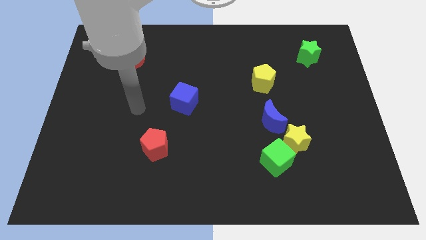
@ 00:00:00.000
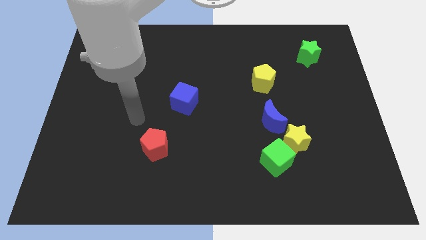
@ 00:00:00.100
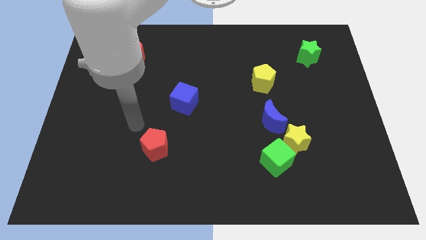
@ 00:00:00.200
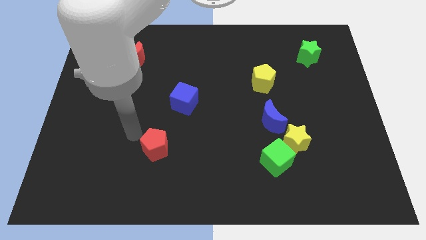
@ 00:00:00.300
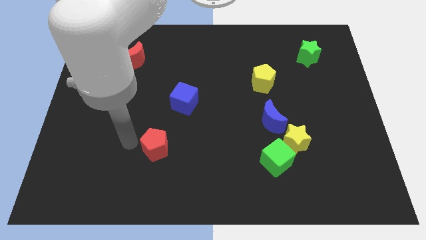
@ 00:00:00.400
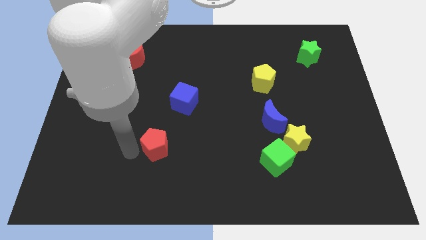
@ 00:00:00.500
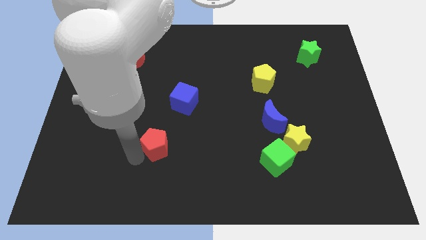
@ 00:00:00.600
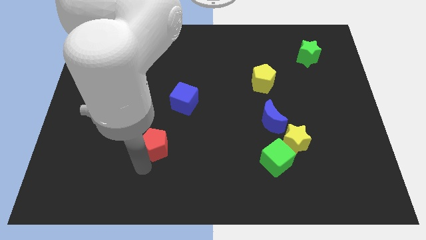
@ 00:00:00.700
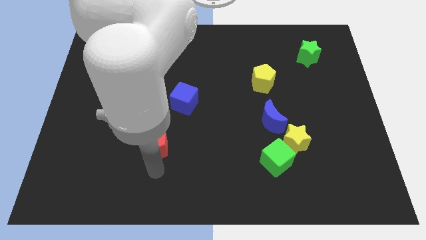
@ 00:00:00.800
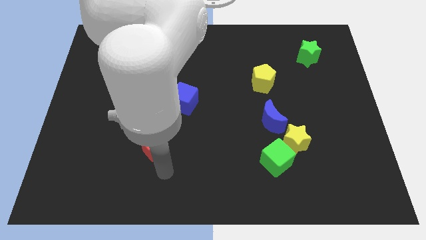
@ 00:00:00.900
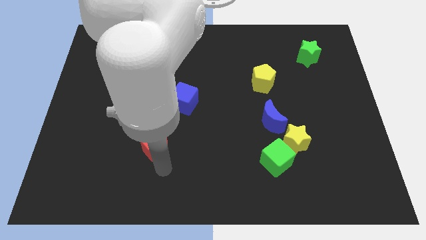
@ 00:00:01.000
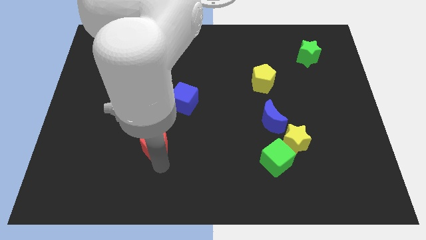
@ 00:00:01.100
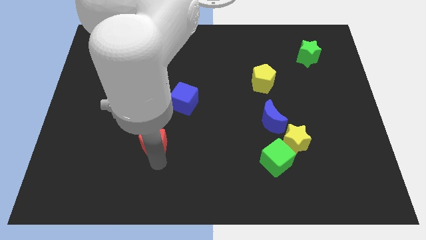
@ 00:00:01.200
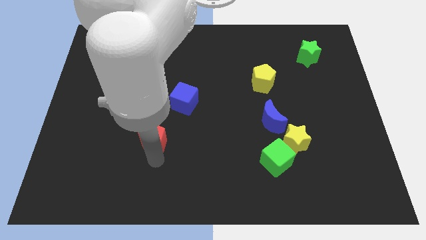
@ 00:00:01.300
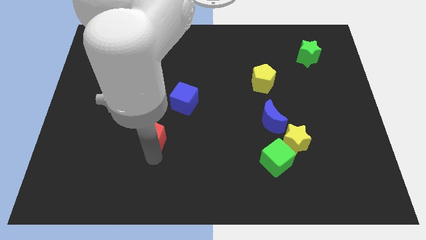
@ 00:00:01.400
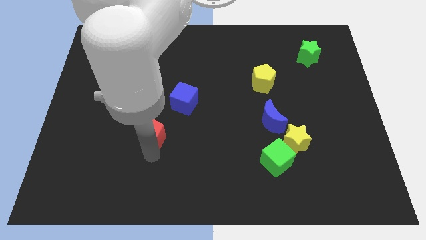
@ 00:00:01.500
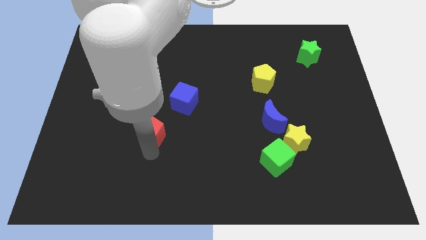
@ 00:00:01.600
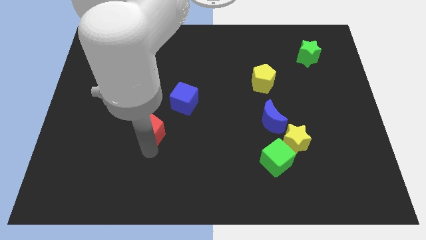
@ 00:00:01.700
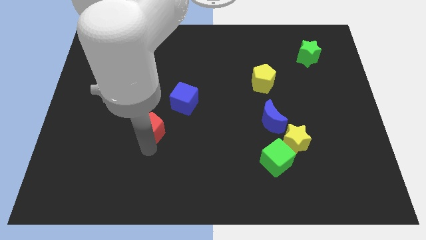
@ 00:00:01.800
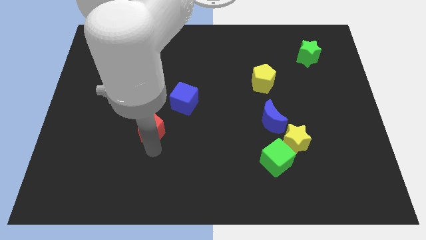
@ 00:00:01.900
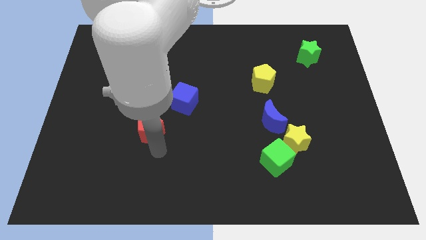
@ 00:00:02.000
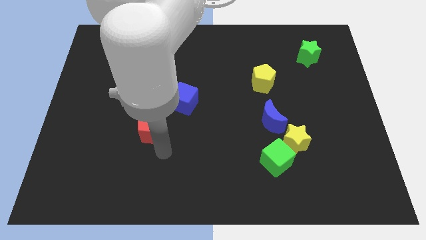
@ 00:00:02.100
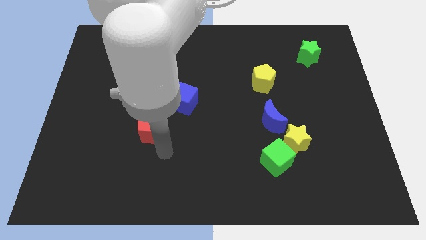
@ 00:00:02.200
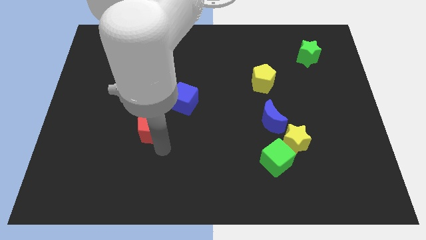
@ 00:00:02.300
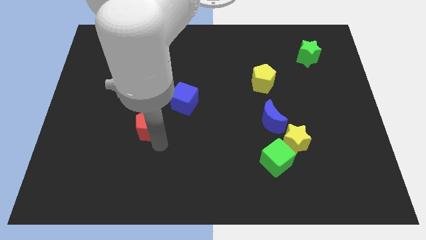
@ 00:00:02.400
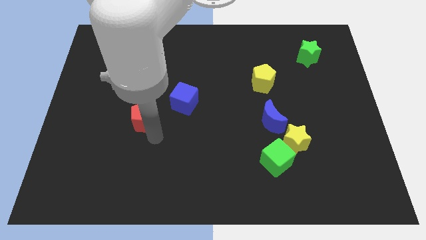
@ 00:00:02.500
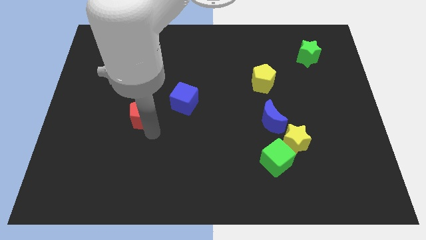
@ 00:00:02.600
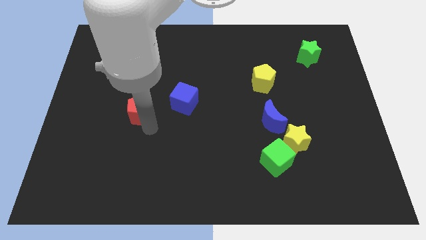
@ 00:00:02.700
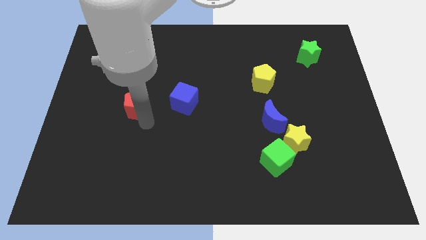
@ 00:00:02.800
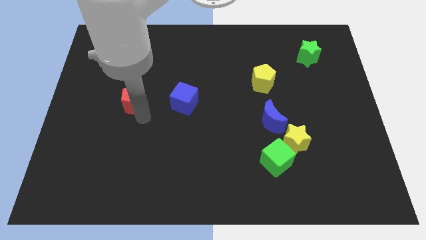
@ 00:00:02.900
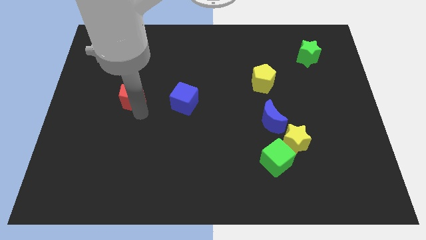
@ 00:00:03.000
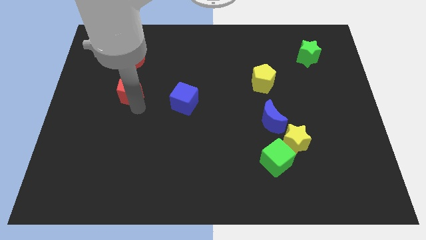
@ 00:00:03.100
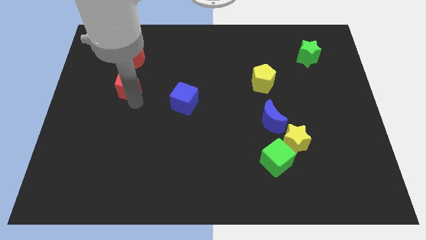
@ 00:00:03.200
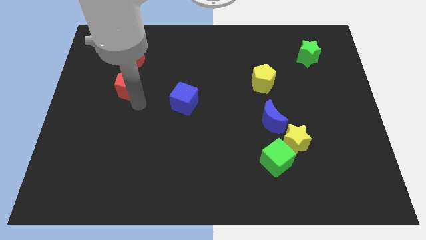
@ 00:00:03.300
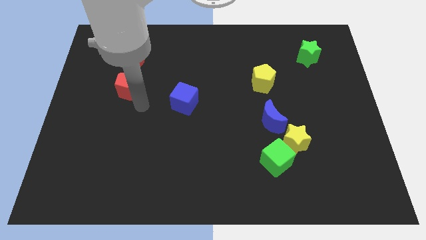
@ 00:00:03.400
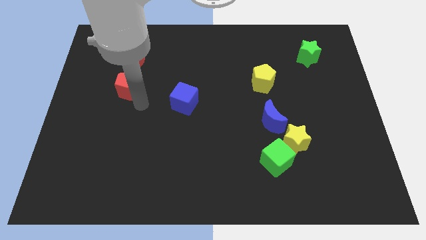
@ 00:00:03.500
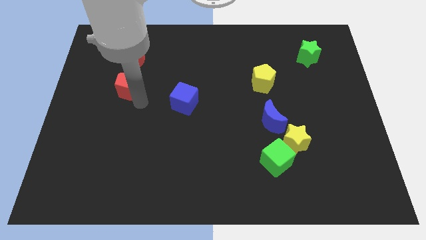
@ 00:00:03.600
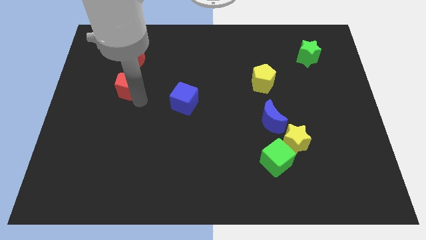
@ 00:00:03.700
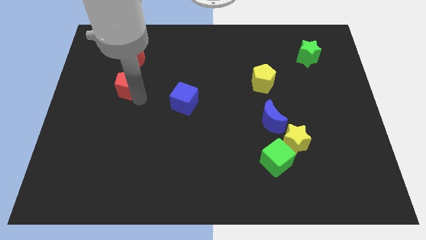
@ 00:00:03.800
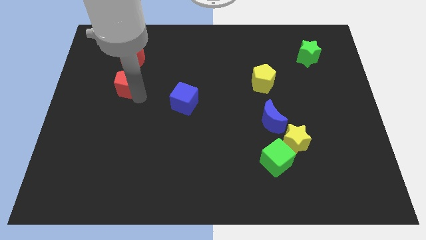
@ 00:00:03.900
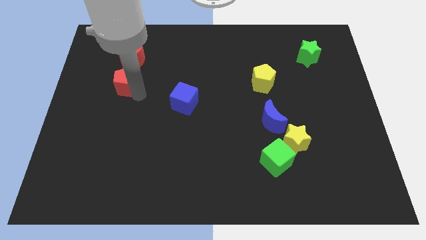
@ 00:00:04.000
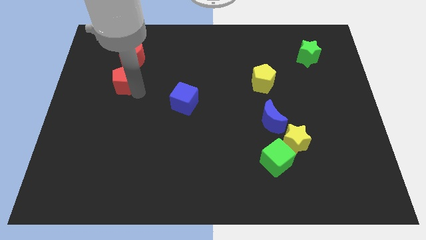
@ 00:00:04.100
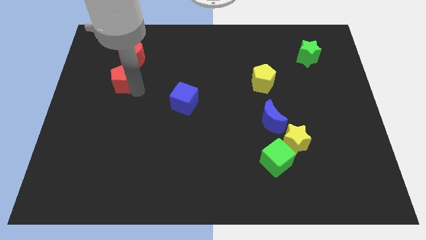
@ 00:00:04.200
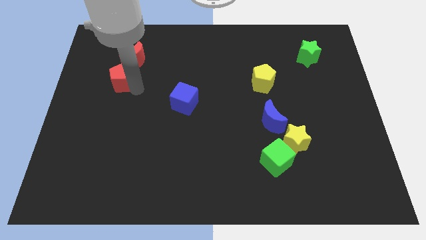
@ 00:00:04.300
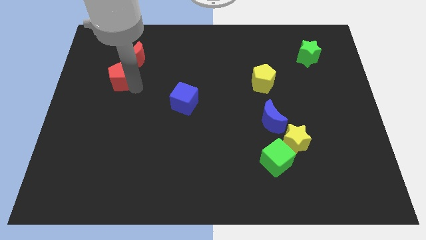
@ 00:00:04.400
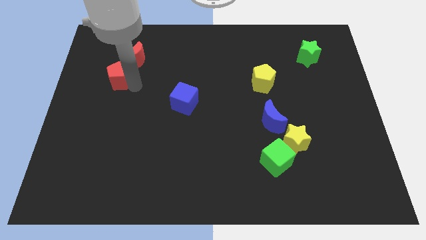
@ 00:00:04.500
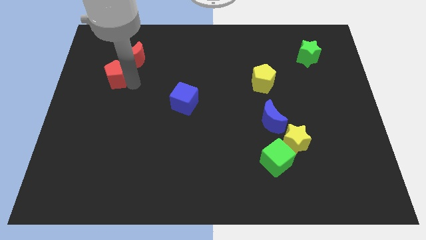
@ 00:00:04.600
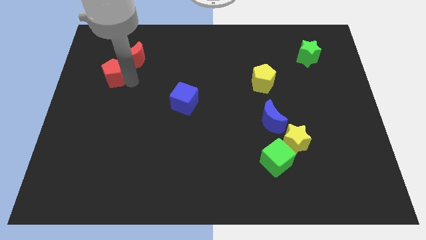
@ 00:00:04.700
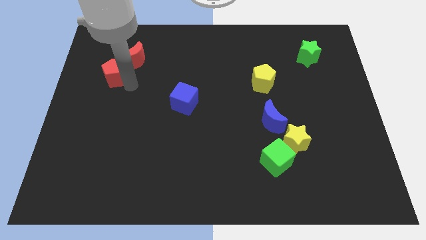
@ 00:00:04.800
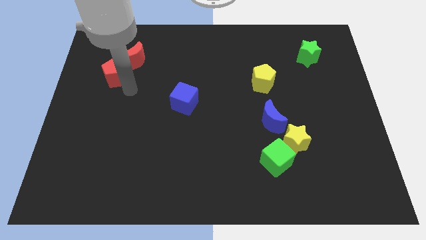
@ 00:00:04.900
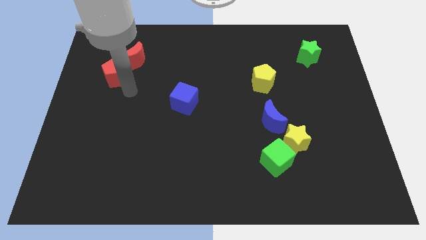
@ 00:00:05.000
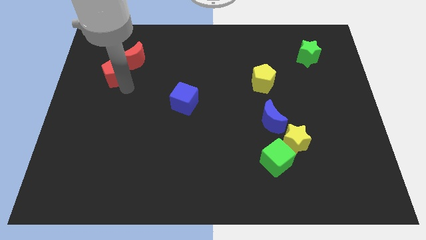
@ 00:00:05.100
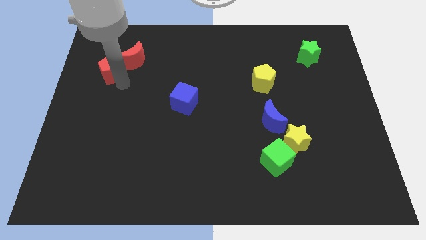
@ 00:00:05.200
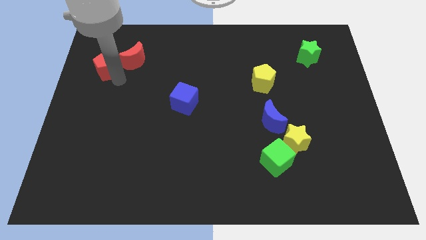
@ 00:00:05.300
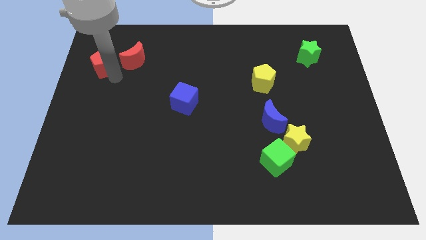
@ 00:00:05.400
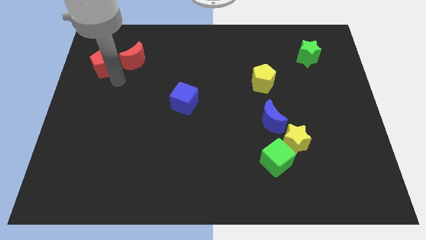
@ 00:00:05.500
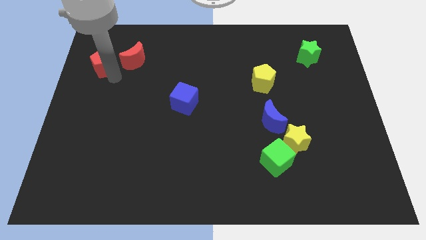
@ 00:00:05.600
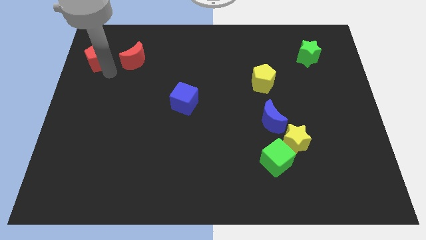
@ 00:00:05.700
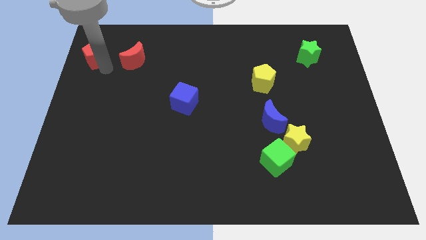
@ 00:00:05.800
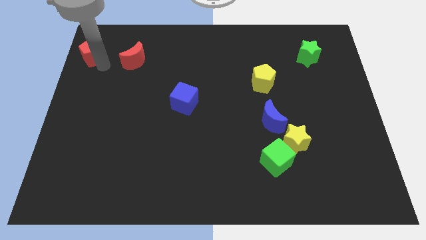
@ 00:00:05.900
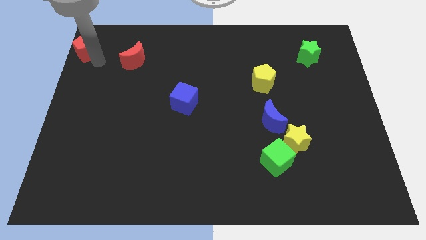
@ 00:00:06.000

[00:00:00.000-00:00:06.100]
push the red pentagon to the top left
